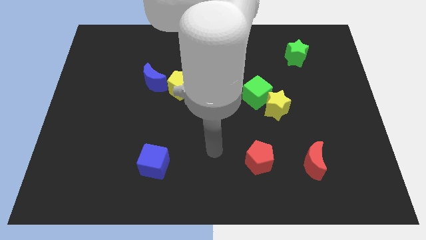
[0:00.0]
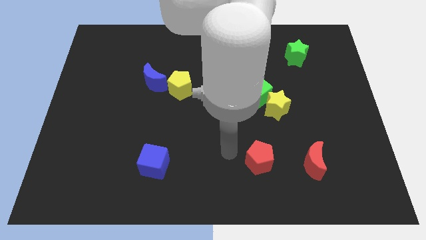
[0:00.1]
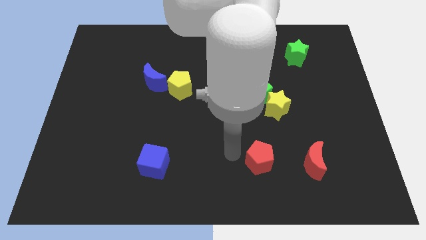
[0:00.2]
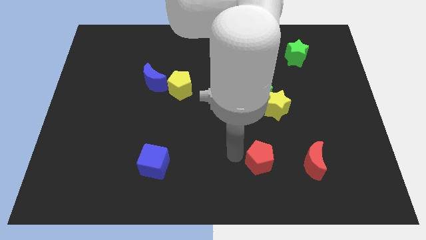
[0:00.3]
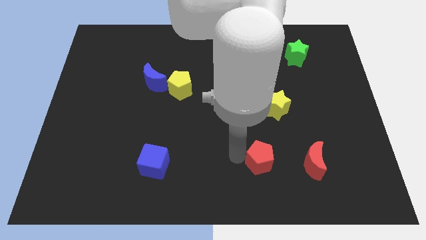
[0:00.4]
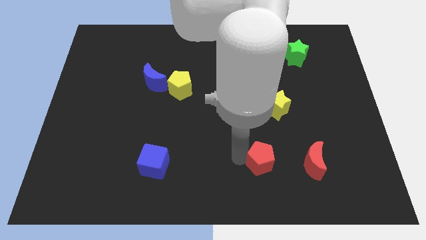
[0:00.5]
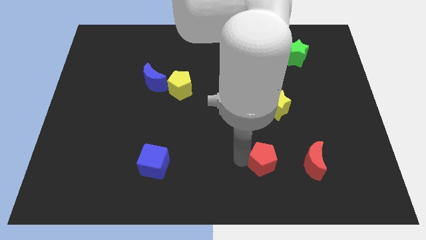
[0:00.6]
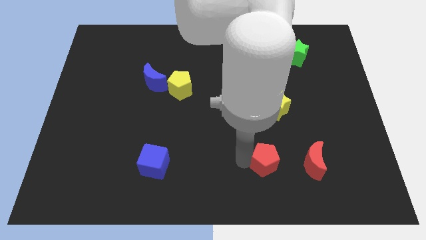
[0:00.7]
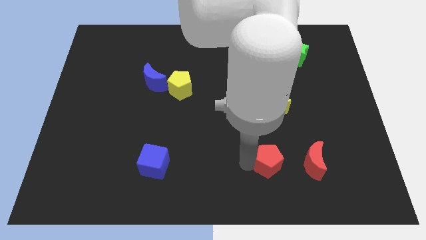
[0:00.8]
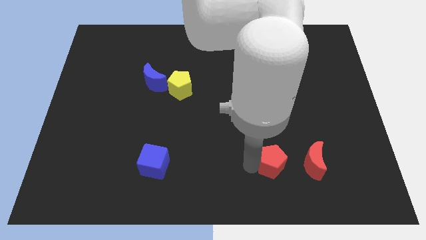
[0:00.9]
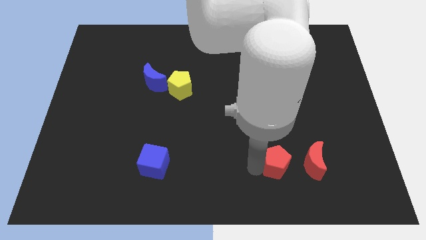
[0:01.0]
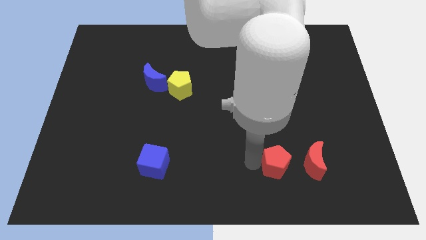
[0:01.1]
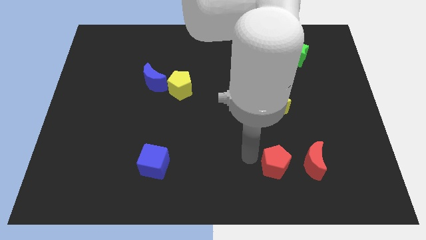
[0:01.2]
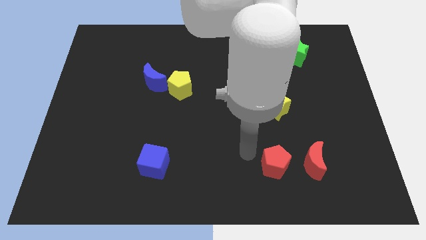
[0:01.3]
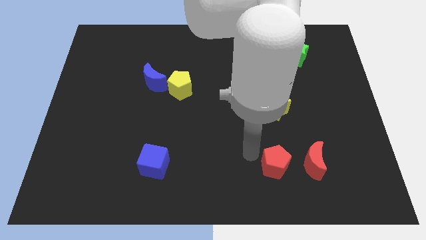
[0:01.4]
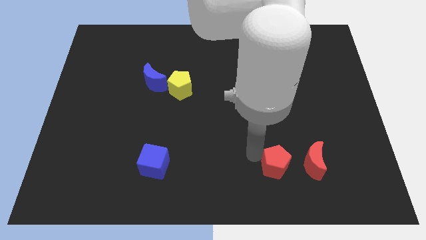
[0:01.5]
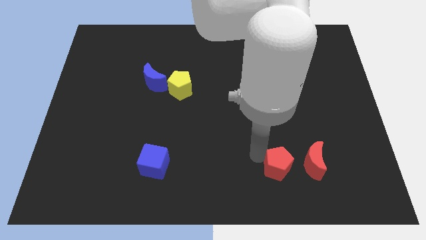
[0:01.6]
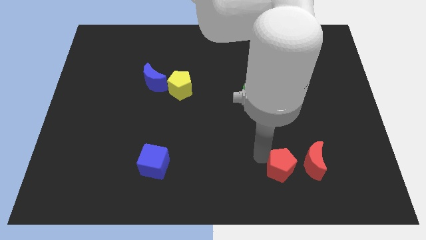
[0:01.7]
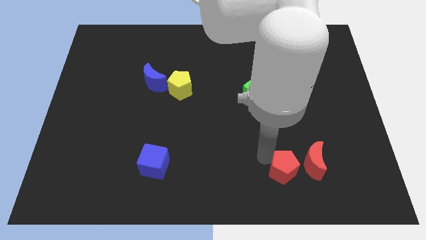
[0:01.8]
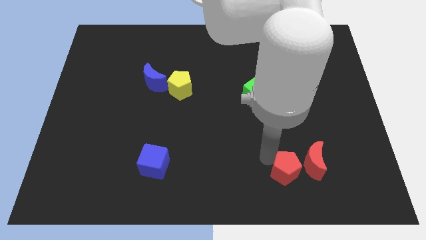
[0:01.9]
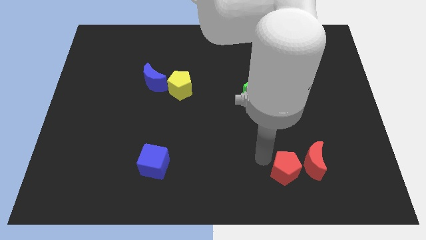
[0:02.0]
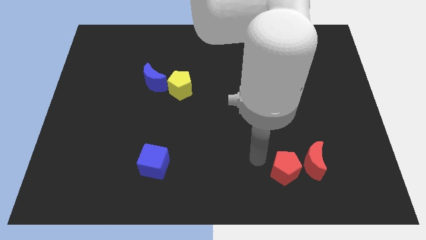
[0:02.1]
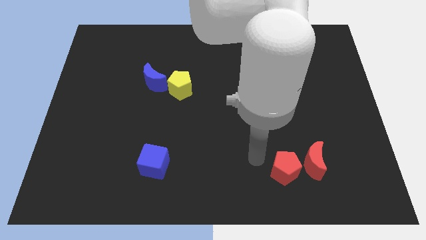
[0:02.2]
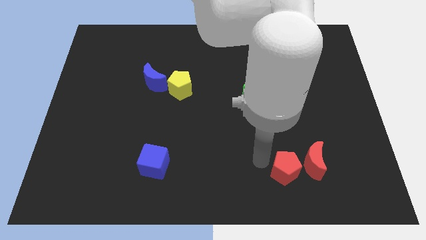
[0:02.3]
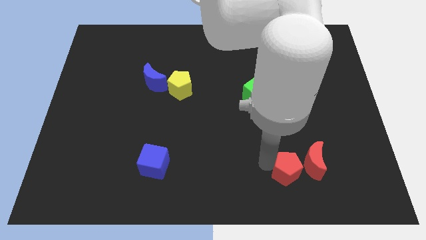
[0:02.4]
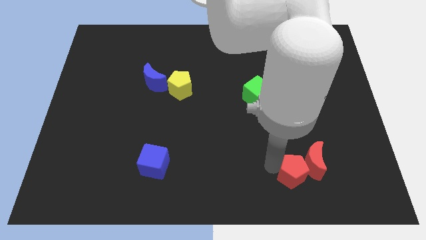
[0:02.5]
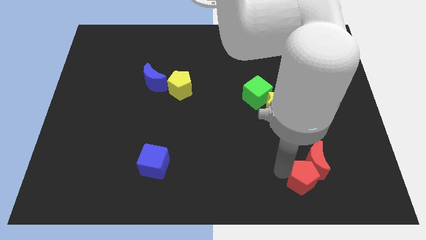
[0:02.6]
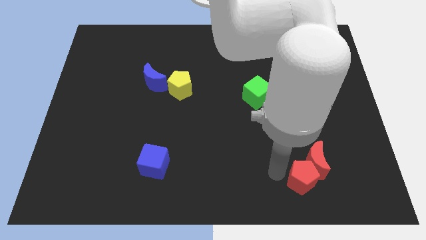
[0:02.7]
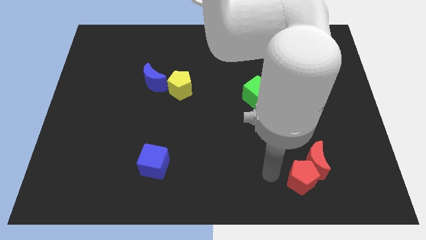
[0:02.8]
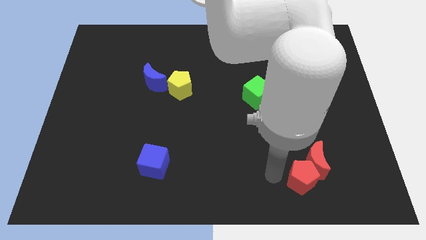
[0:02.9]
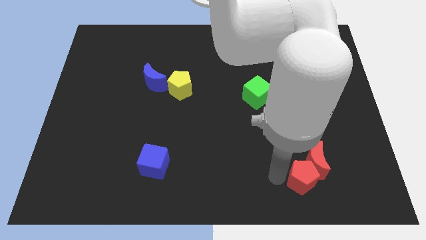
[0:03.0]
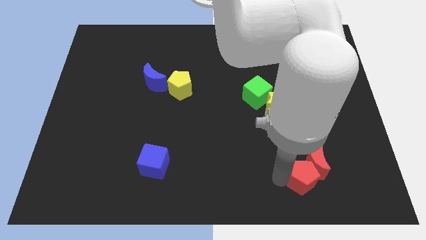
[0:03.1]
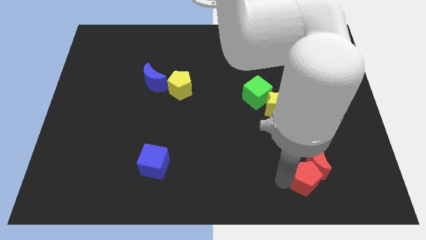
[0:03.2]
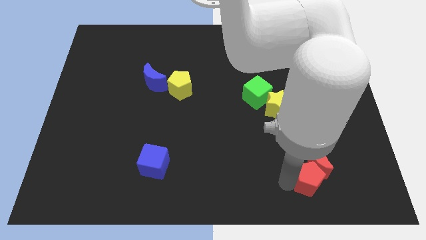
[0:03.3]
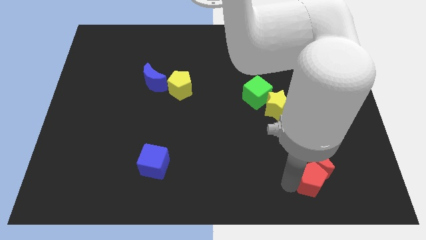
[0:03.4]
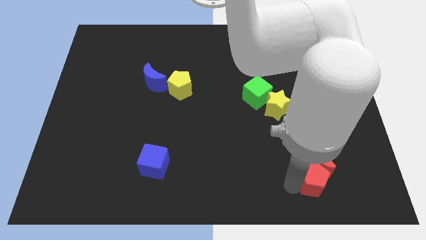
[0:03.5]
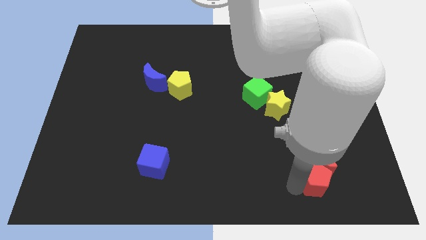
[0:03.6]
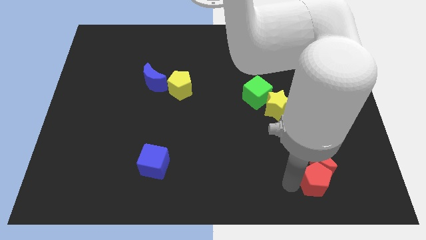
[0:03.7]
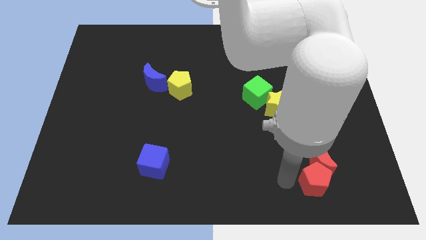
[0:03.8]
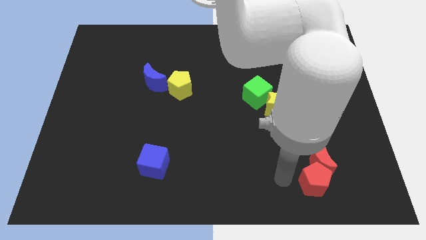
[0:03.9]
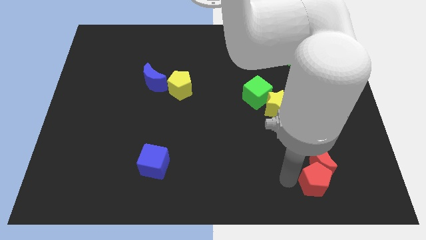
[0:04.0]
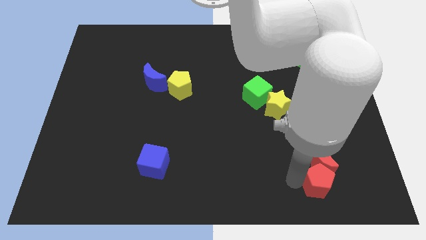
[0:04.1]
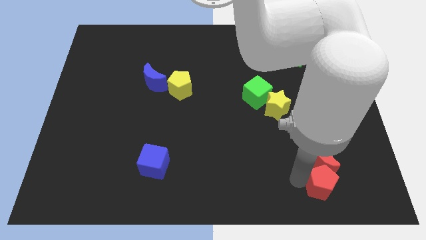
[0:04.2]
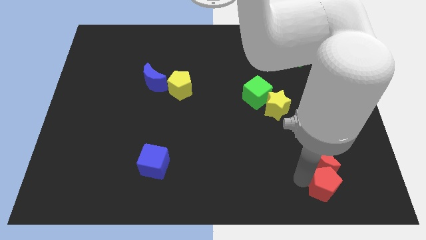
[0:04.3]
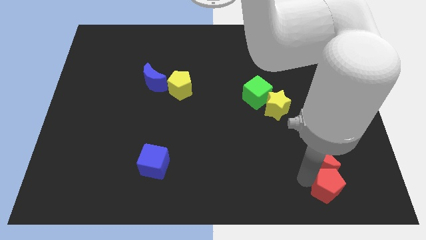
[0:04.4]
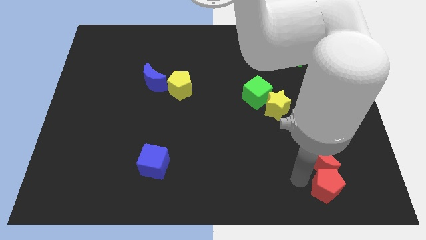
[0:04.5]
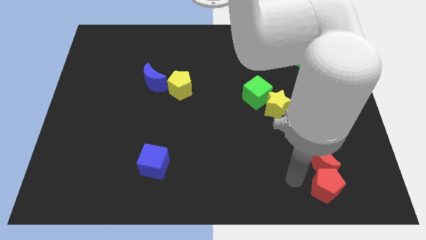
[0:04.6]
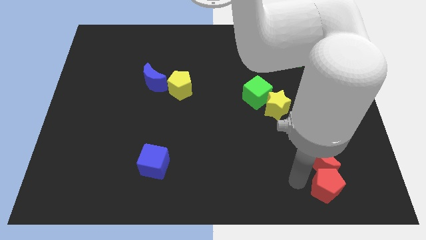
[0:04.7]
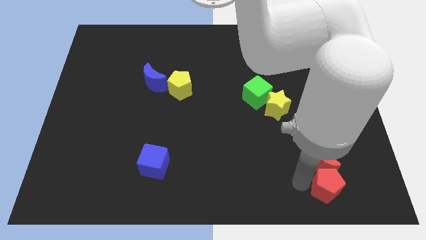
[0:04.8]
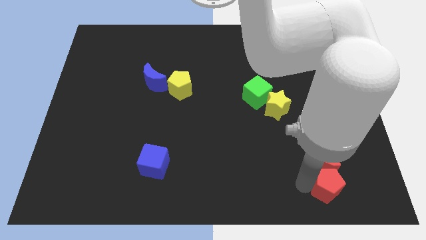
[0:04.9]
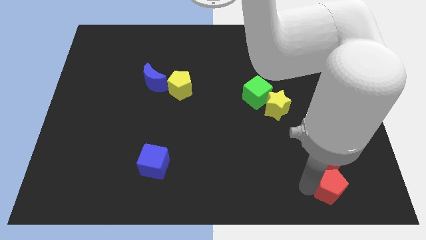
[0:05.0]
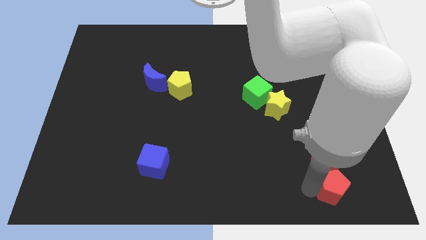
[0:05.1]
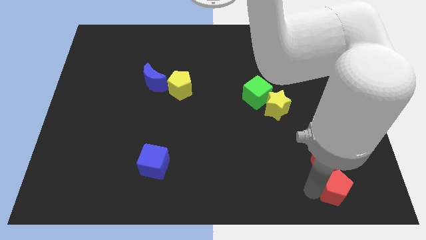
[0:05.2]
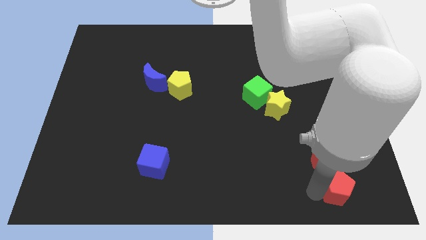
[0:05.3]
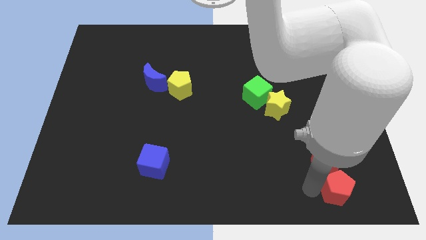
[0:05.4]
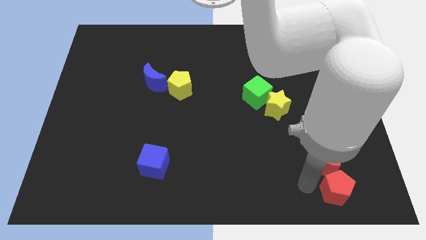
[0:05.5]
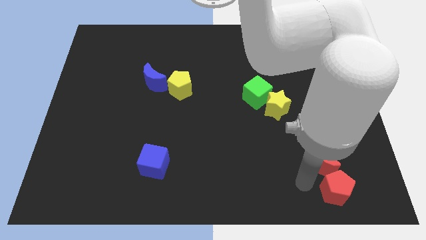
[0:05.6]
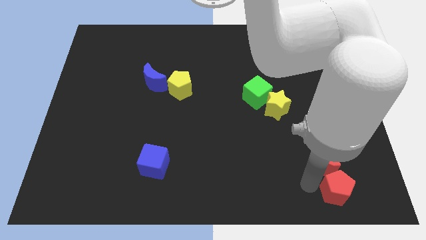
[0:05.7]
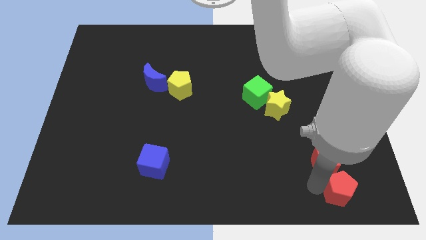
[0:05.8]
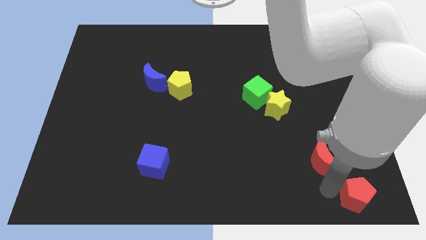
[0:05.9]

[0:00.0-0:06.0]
put the red pentagon to the bottom right
